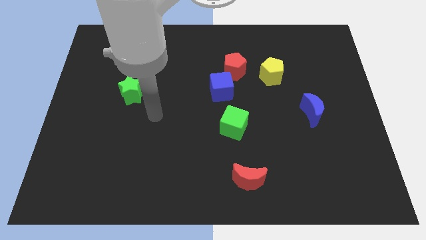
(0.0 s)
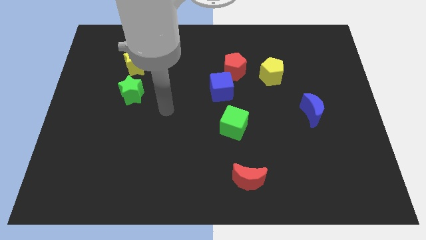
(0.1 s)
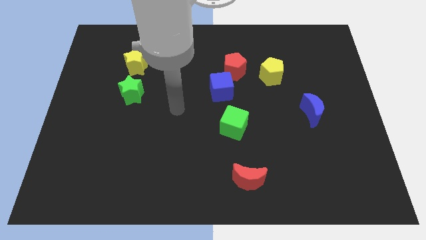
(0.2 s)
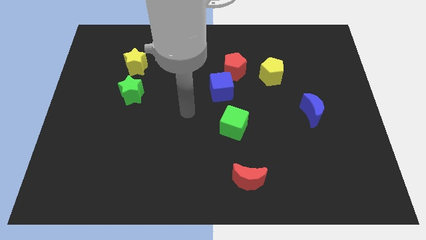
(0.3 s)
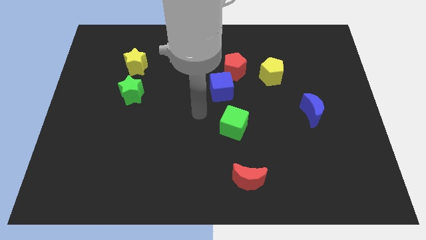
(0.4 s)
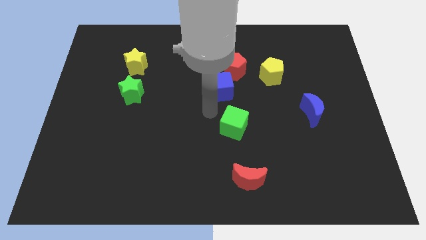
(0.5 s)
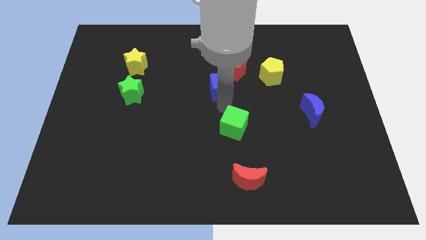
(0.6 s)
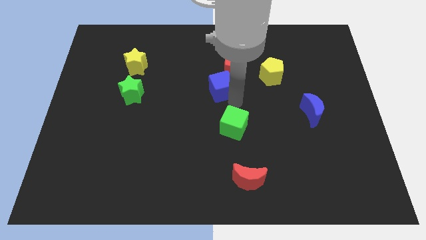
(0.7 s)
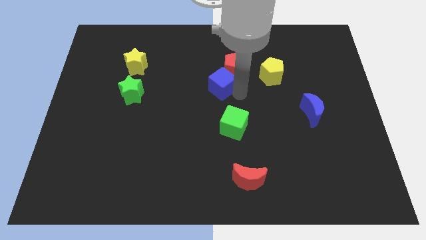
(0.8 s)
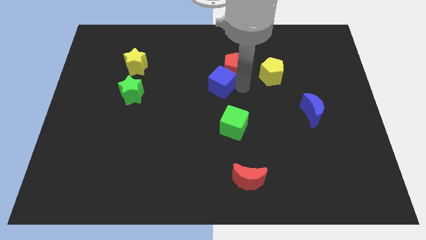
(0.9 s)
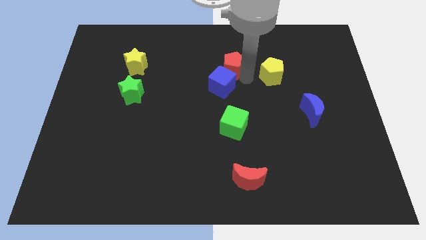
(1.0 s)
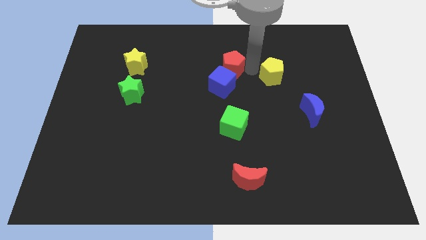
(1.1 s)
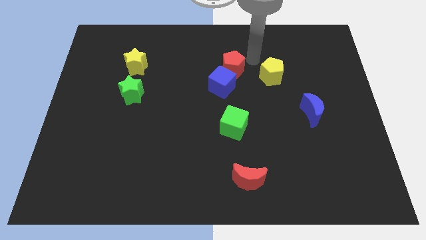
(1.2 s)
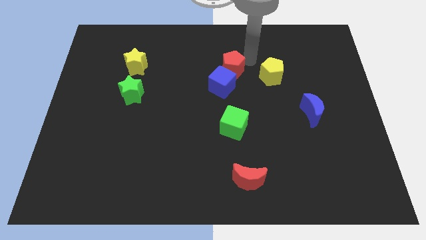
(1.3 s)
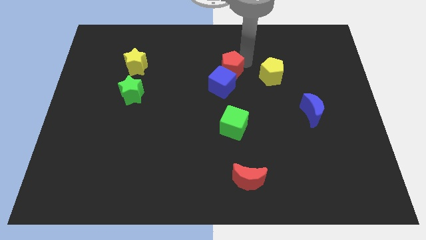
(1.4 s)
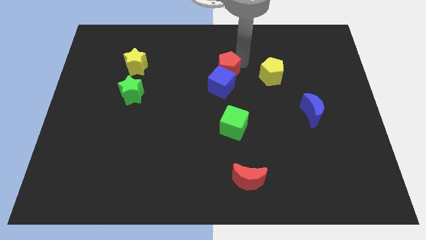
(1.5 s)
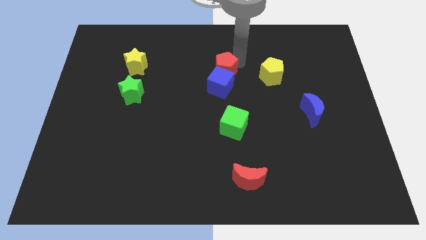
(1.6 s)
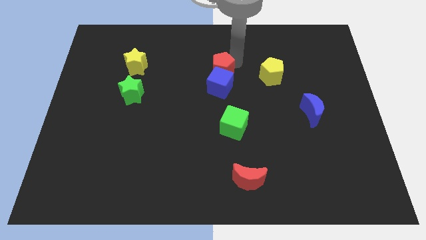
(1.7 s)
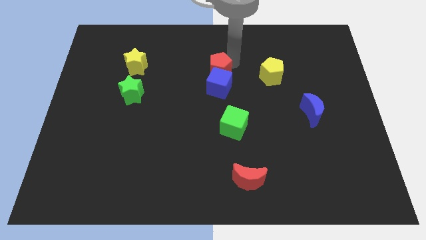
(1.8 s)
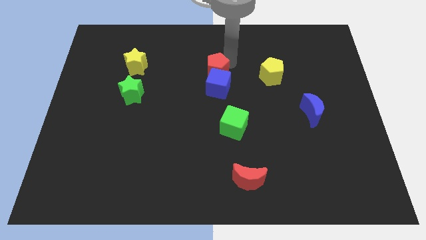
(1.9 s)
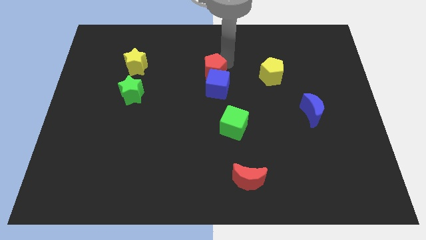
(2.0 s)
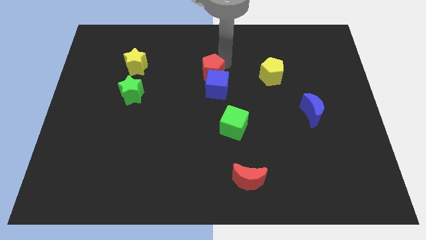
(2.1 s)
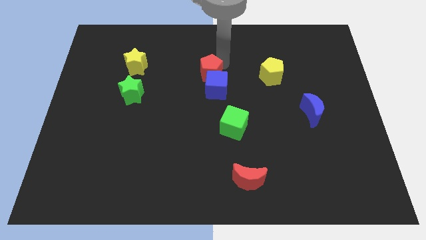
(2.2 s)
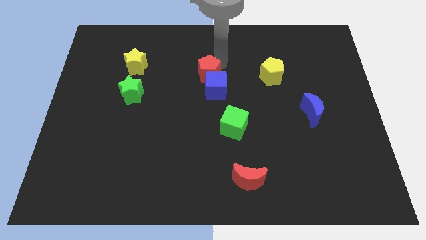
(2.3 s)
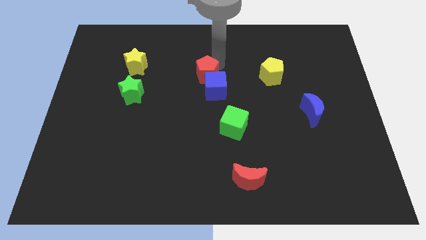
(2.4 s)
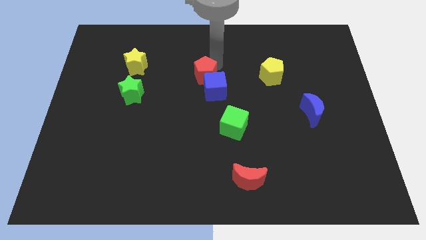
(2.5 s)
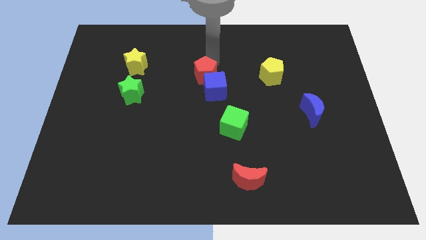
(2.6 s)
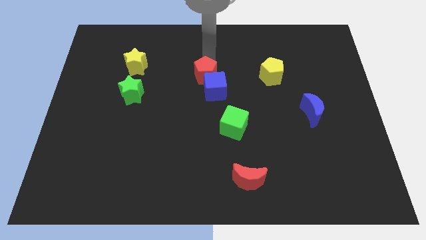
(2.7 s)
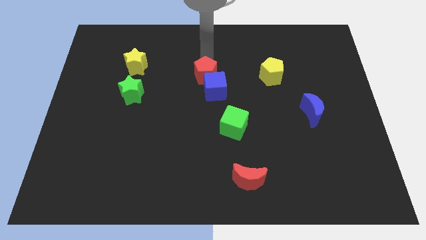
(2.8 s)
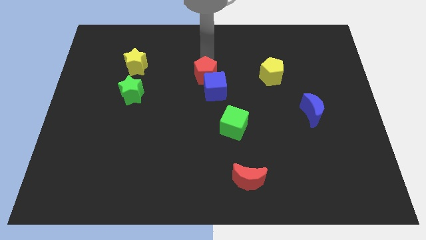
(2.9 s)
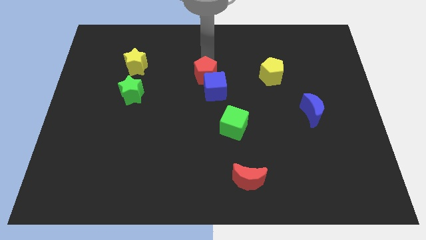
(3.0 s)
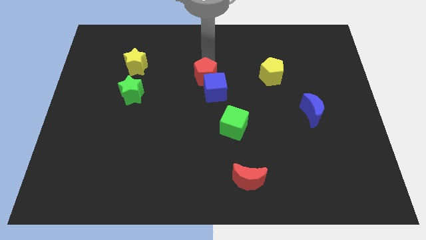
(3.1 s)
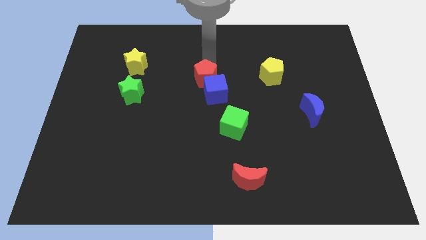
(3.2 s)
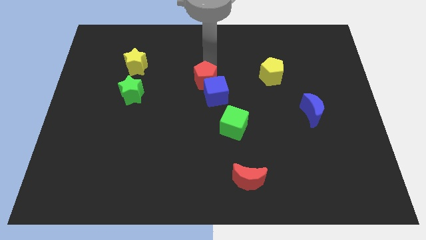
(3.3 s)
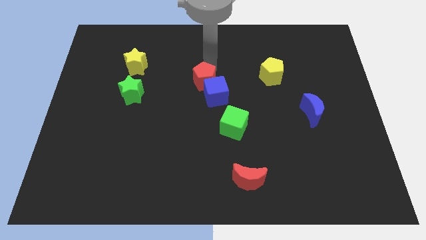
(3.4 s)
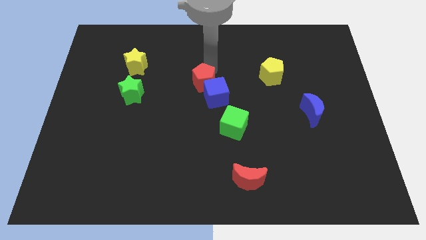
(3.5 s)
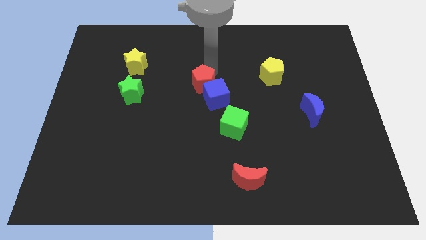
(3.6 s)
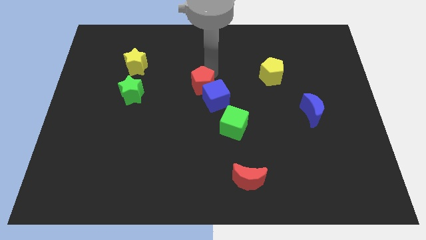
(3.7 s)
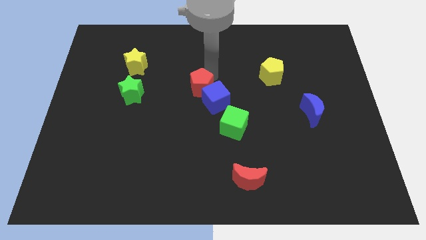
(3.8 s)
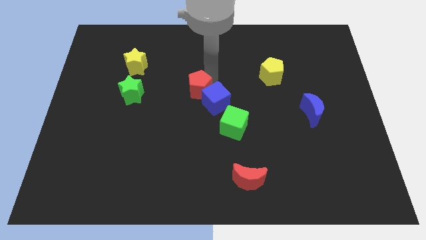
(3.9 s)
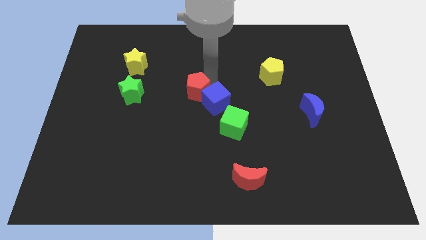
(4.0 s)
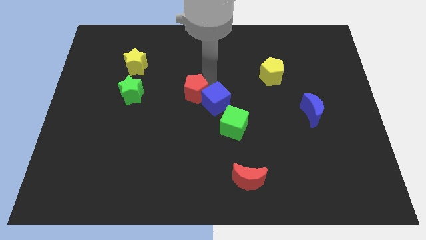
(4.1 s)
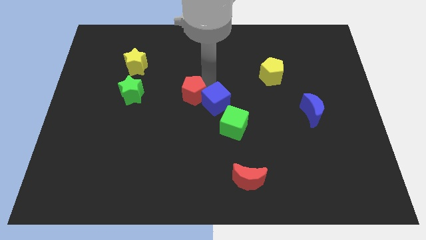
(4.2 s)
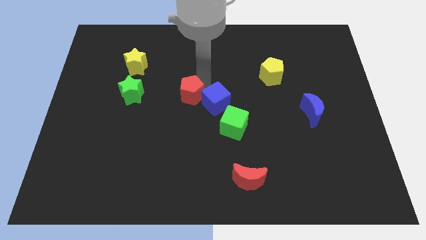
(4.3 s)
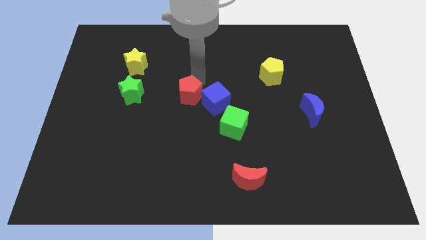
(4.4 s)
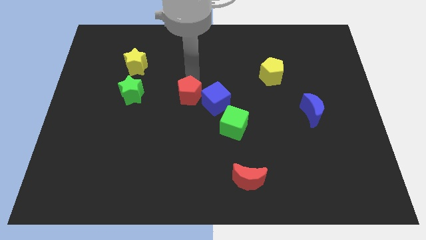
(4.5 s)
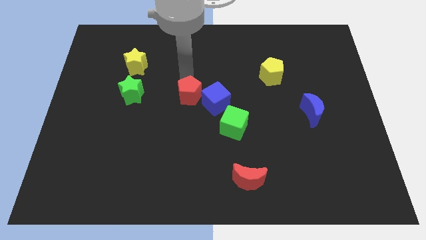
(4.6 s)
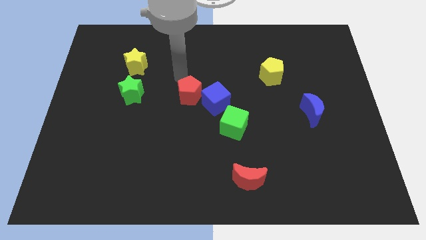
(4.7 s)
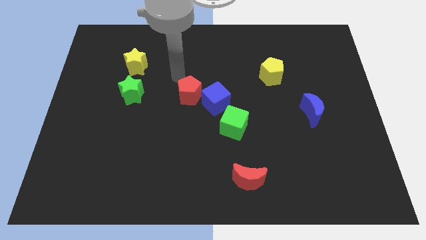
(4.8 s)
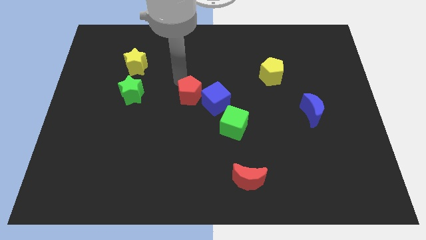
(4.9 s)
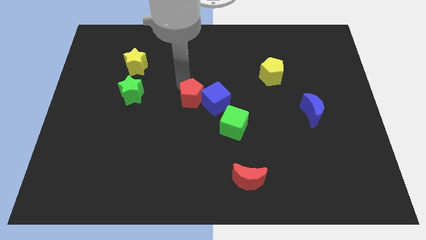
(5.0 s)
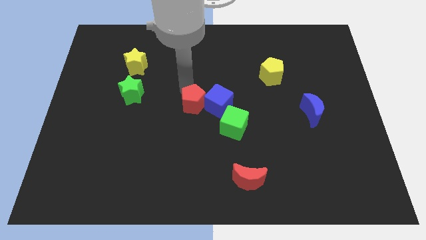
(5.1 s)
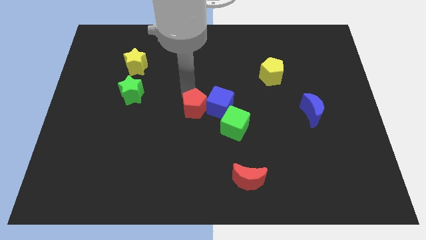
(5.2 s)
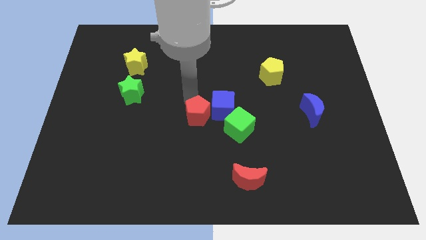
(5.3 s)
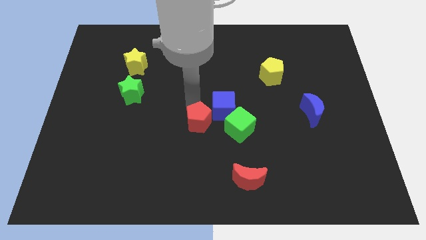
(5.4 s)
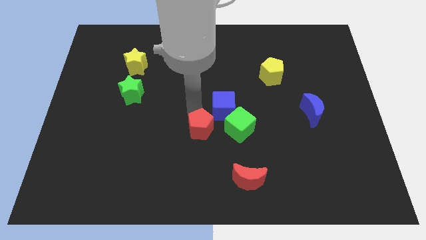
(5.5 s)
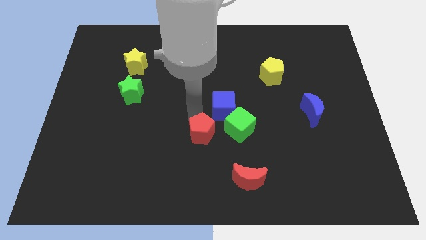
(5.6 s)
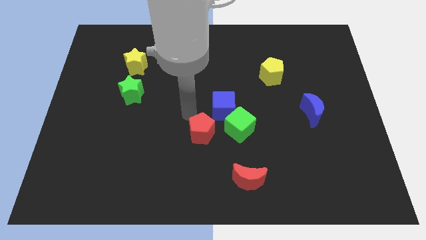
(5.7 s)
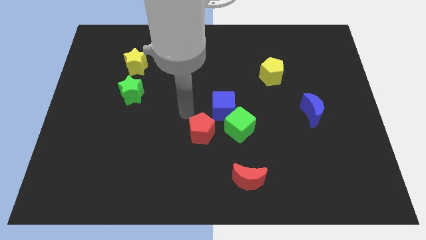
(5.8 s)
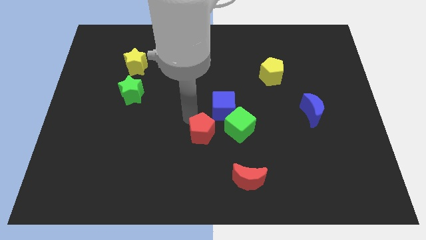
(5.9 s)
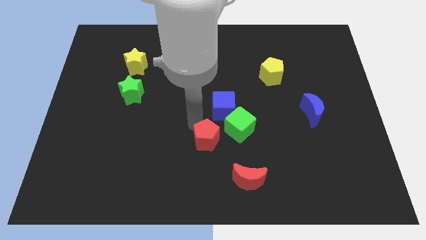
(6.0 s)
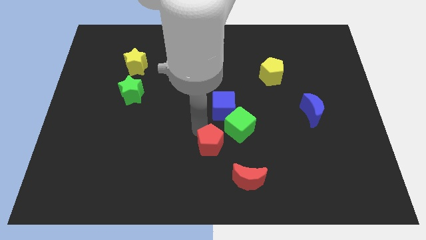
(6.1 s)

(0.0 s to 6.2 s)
put the red pentagon diagonally up and to the left of the red moon

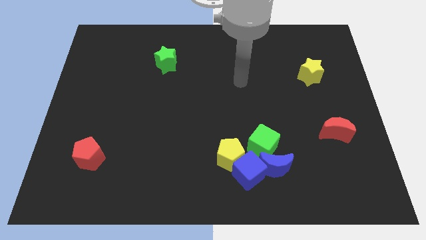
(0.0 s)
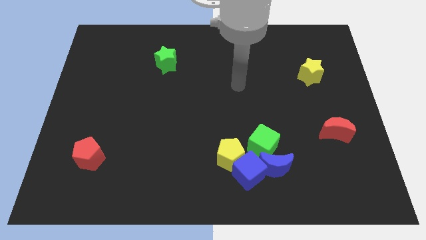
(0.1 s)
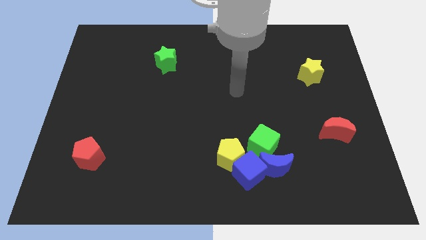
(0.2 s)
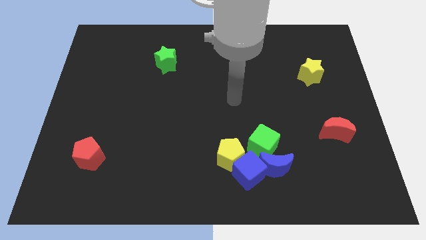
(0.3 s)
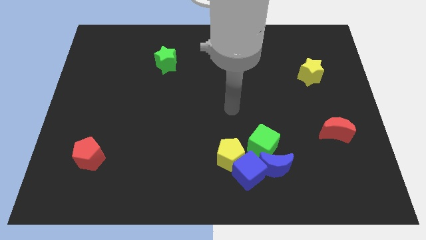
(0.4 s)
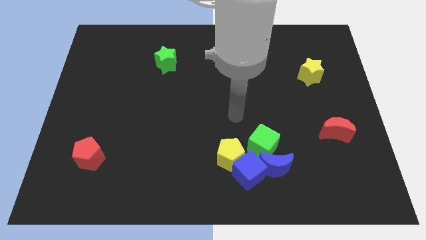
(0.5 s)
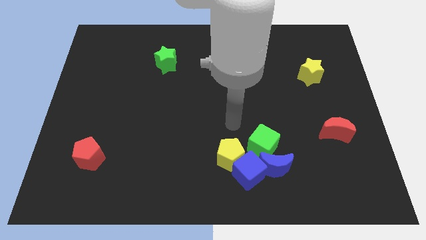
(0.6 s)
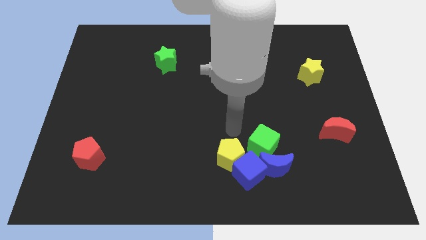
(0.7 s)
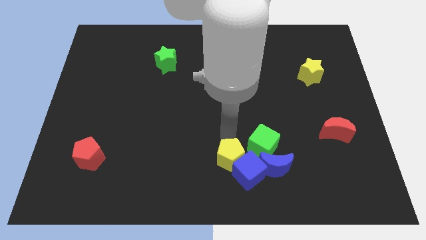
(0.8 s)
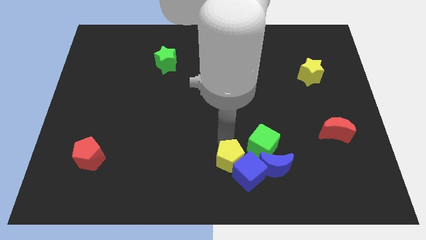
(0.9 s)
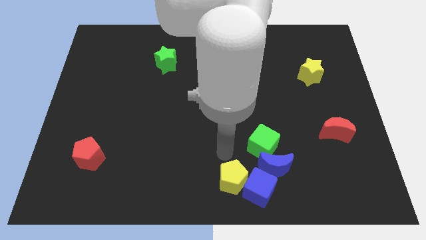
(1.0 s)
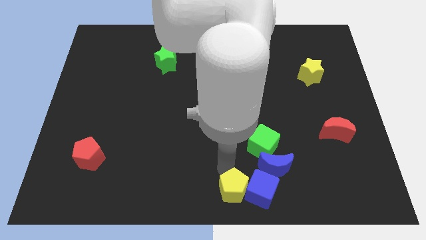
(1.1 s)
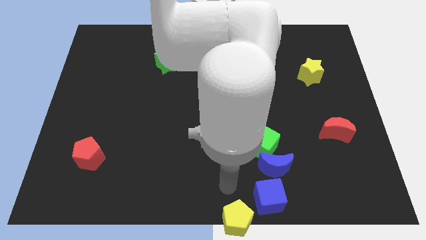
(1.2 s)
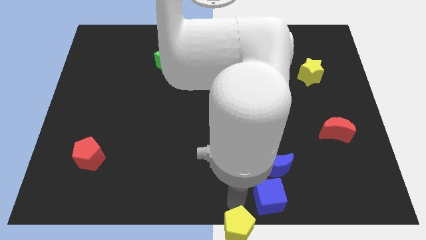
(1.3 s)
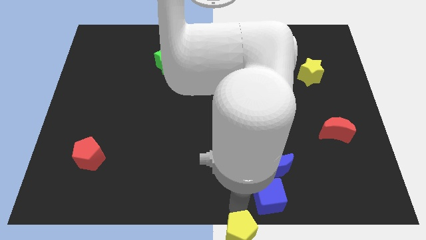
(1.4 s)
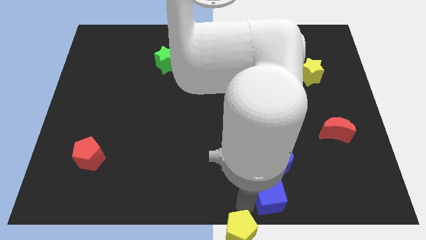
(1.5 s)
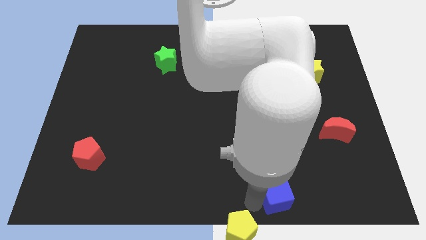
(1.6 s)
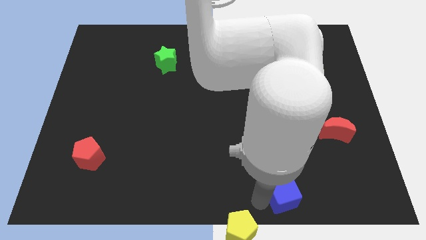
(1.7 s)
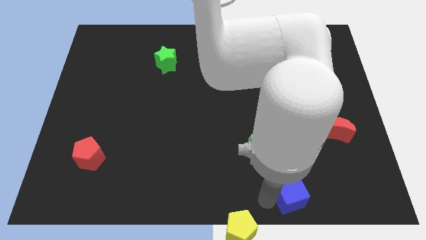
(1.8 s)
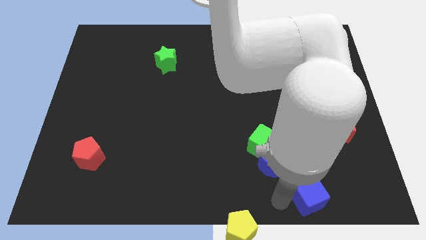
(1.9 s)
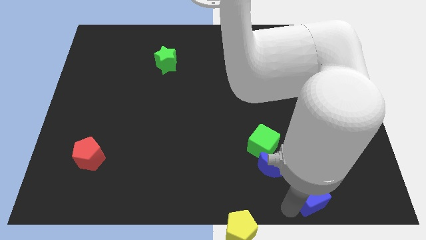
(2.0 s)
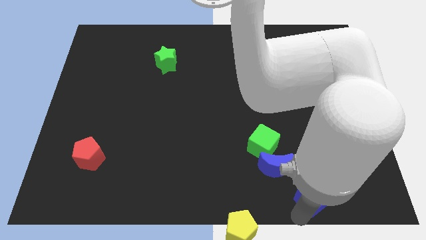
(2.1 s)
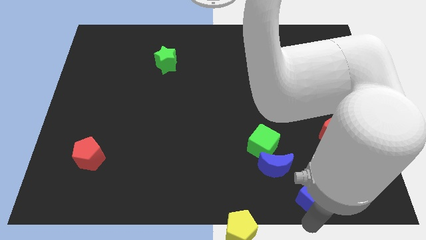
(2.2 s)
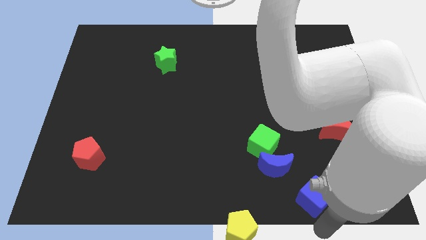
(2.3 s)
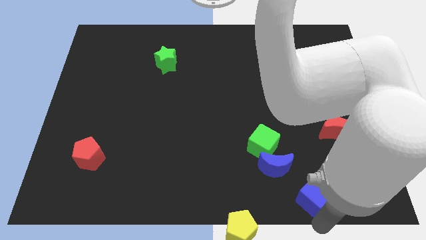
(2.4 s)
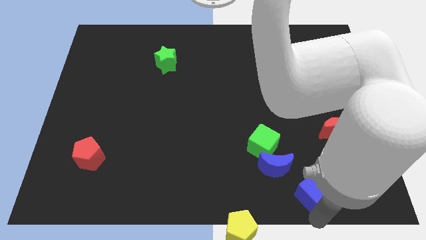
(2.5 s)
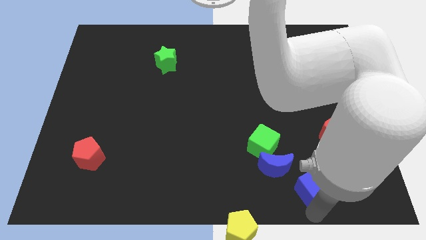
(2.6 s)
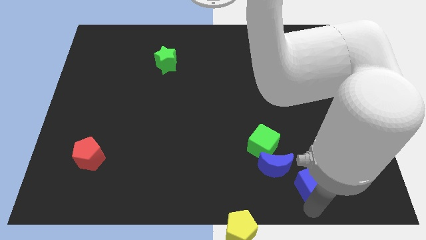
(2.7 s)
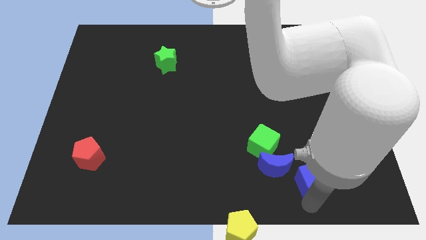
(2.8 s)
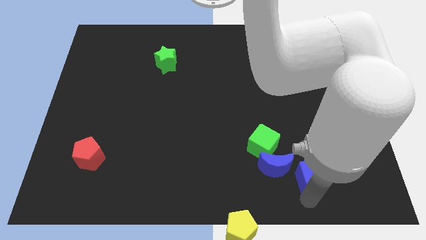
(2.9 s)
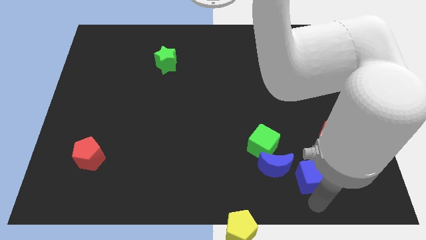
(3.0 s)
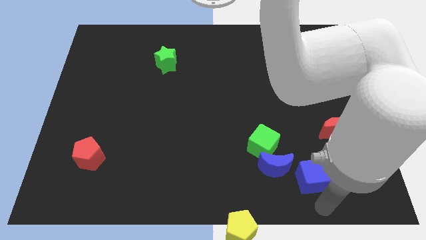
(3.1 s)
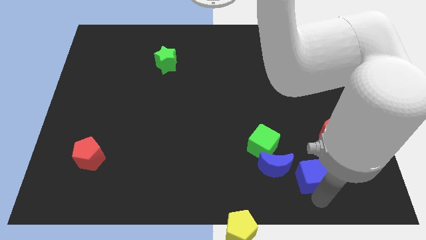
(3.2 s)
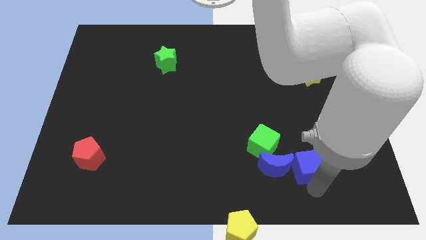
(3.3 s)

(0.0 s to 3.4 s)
push the blue cube to the top right side of the blue moon
